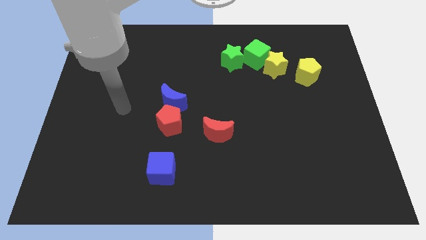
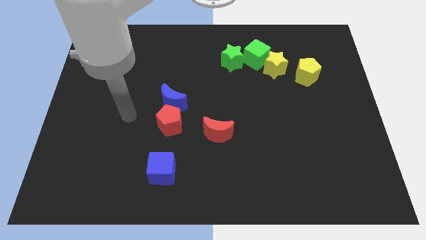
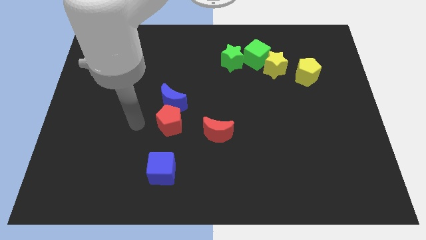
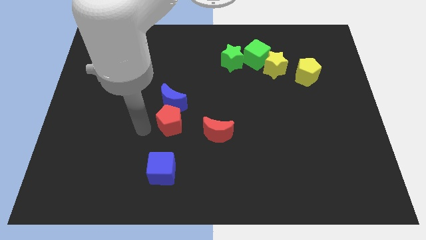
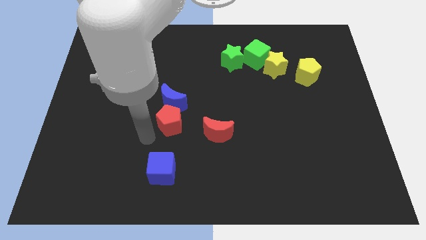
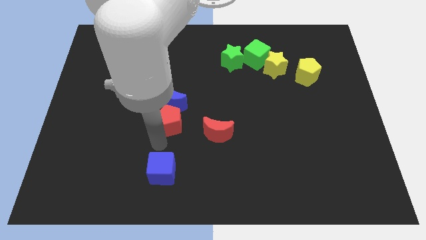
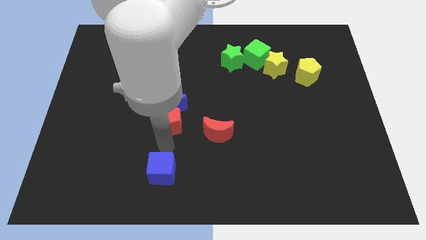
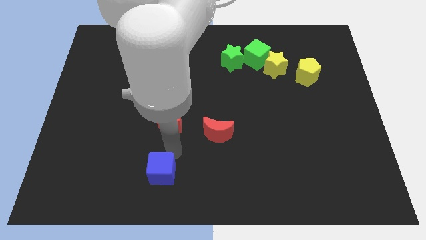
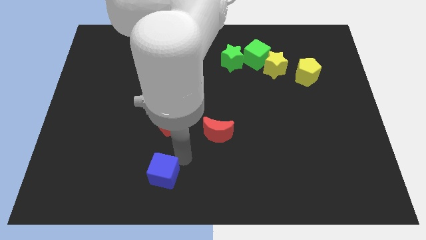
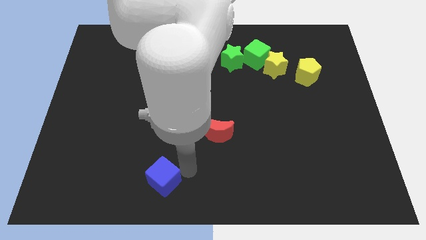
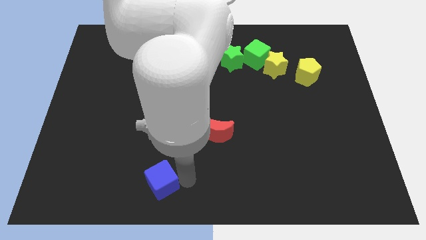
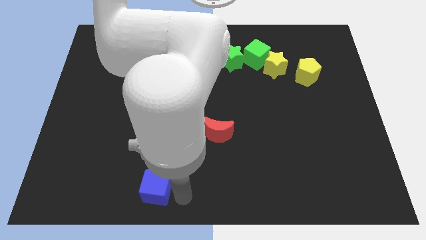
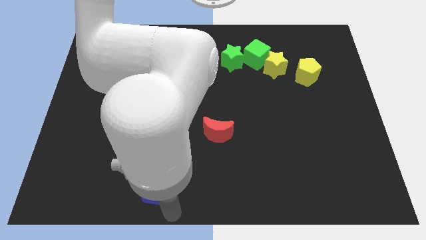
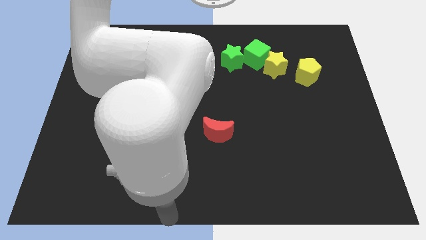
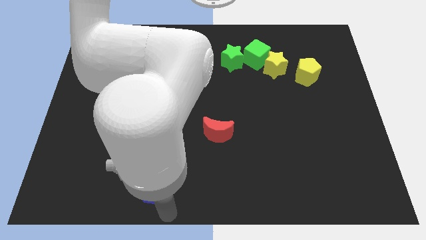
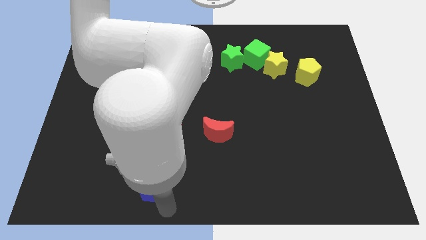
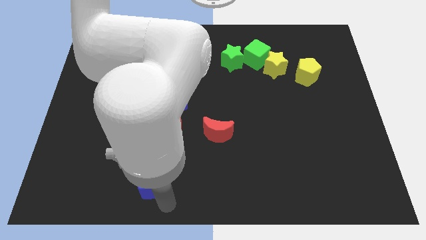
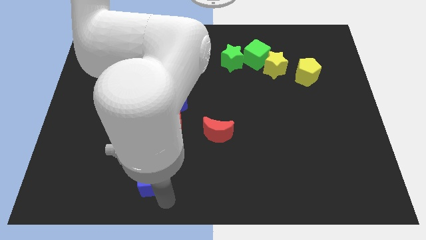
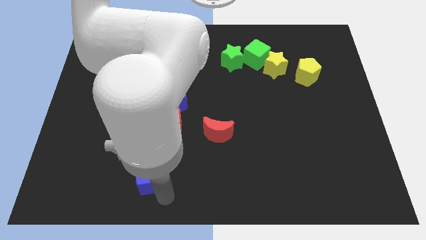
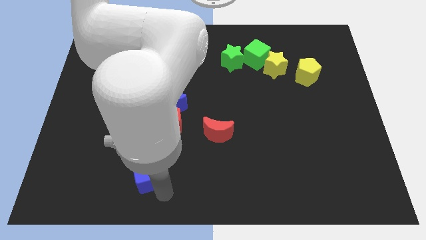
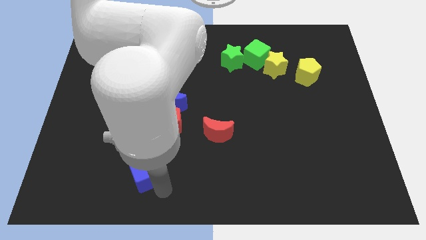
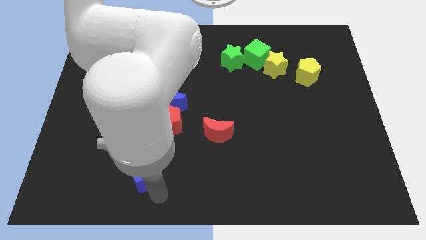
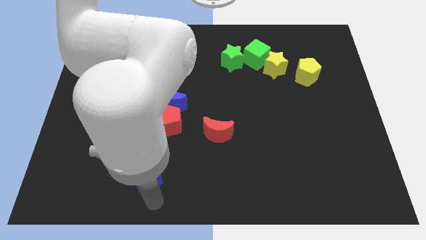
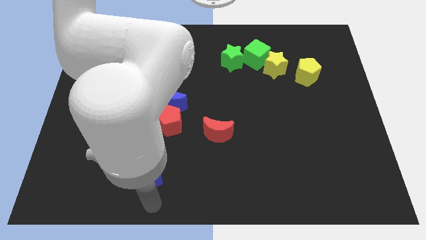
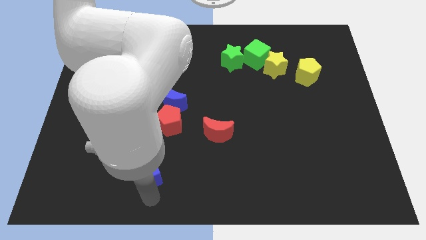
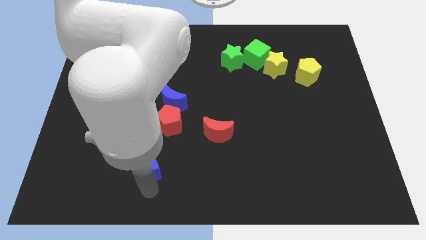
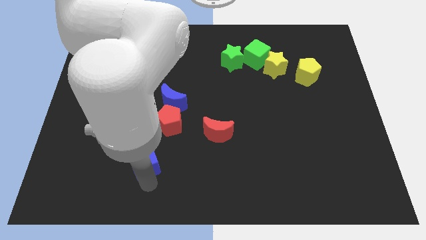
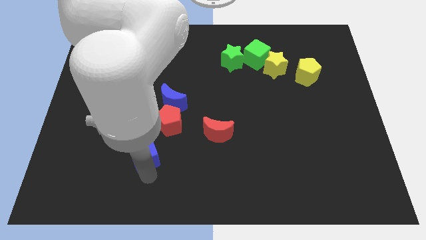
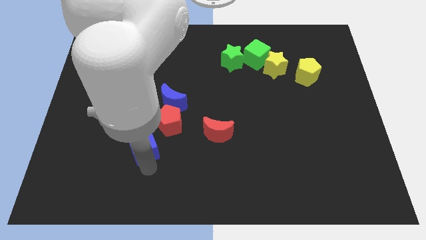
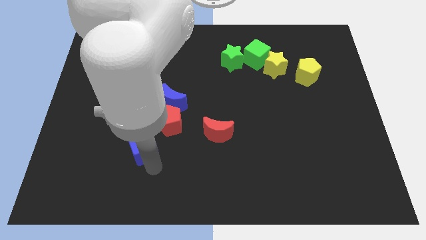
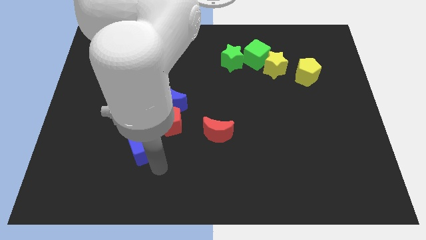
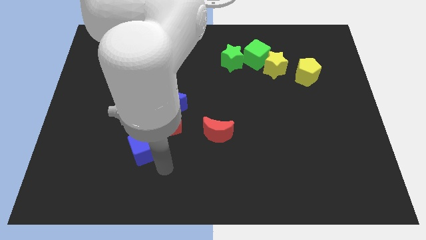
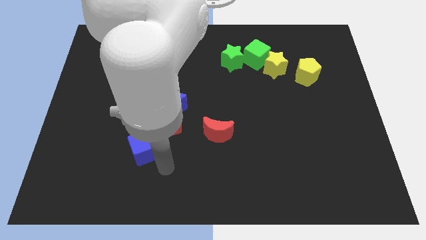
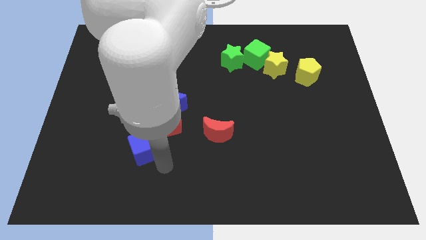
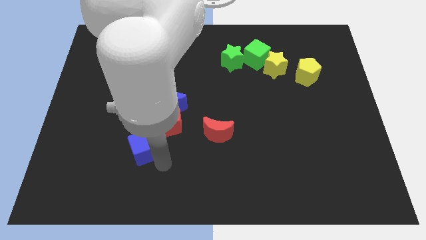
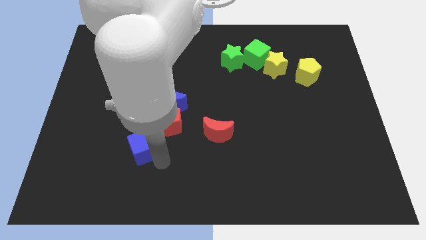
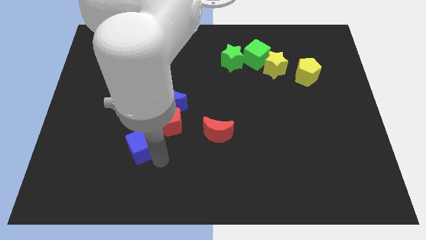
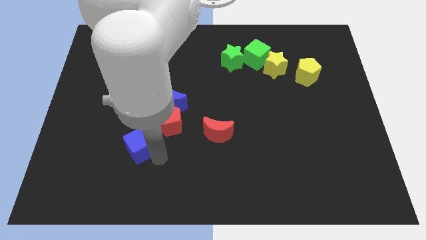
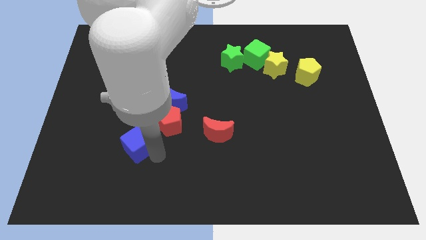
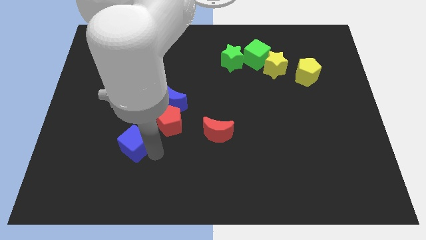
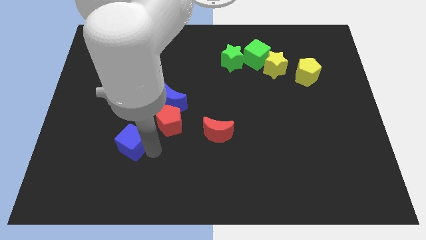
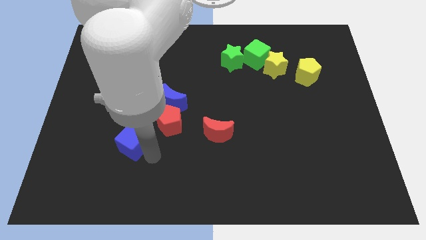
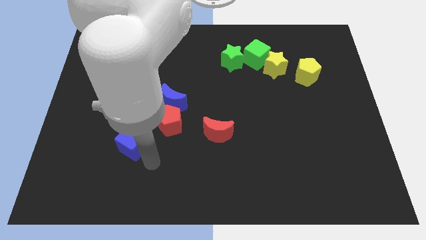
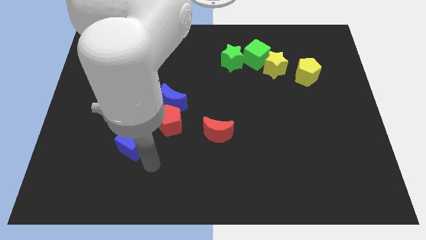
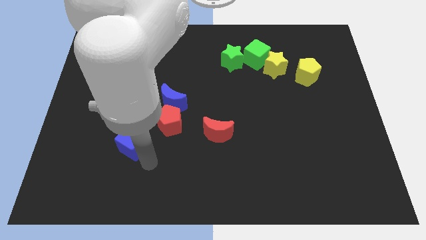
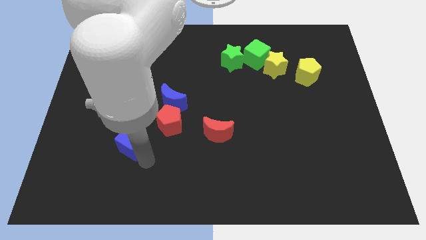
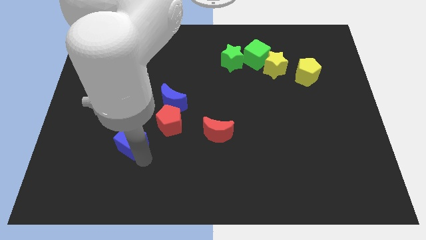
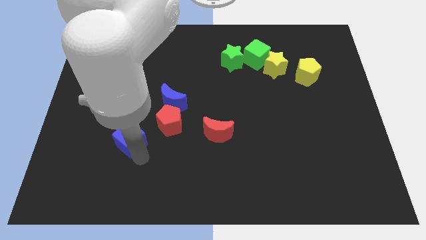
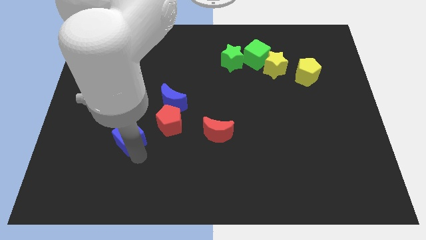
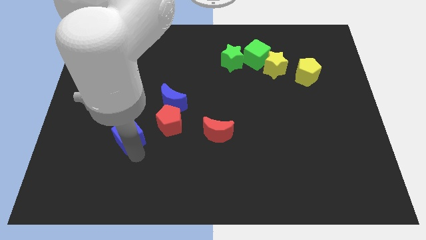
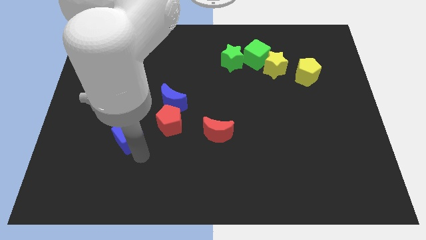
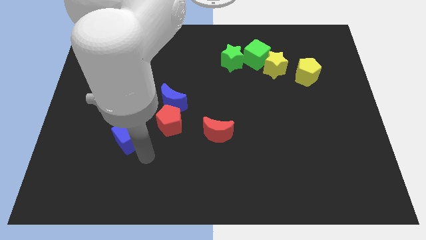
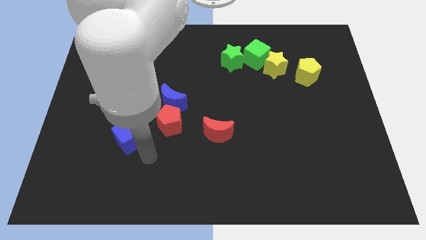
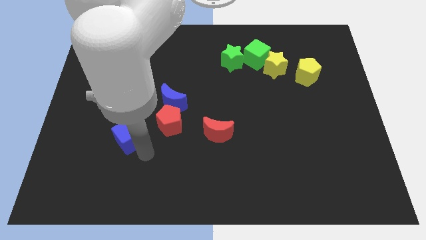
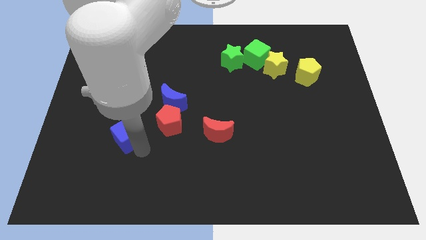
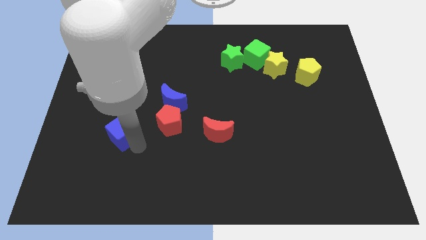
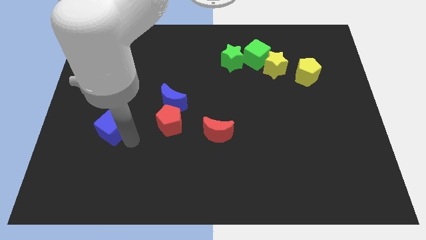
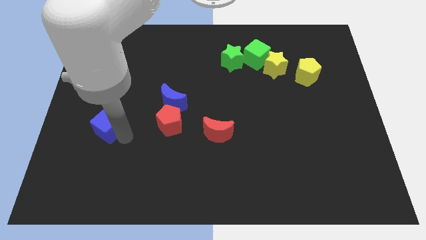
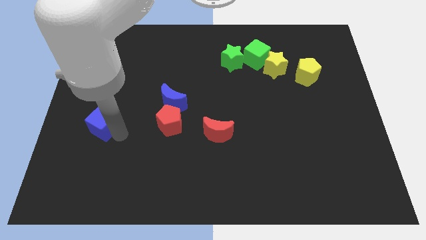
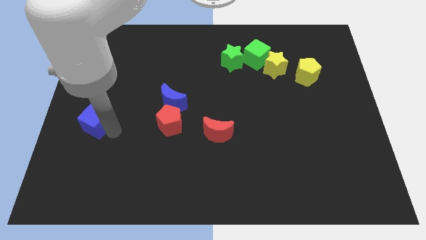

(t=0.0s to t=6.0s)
push the blue cube to the center left

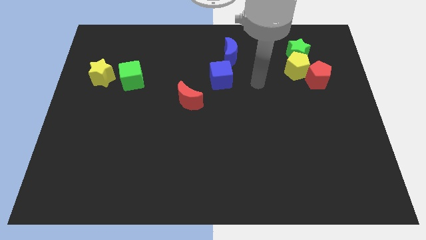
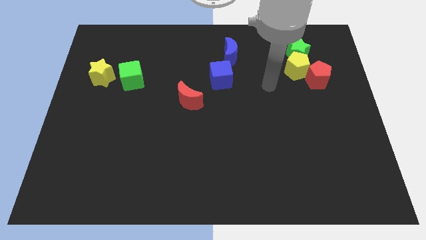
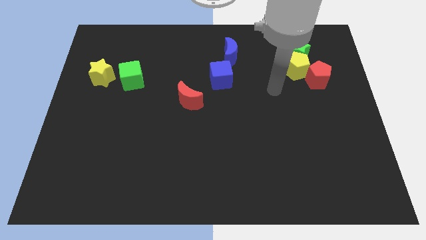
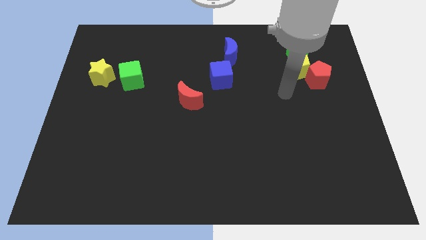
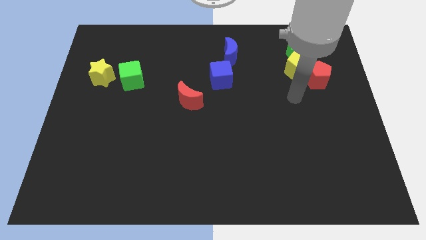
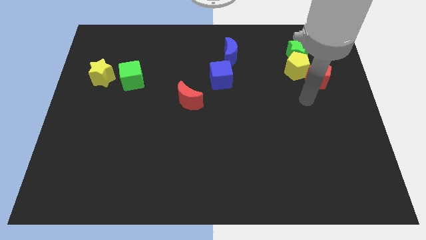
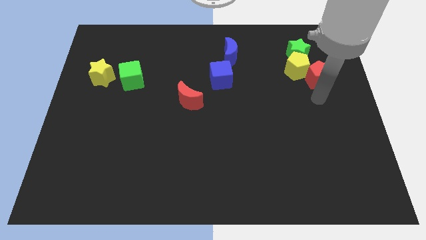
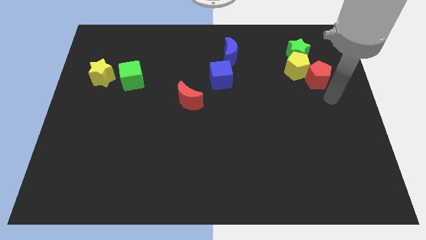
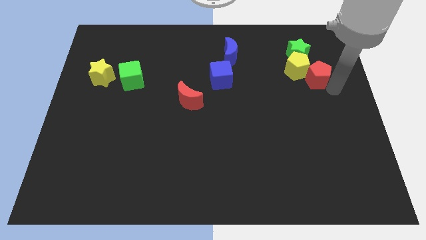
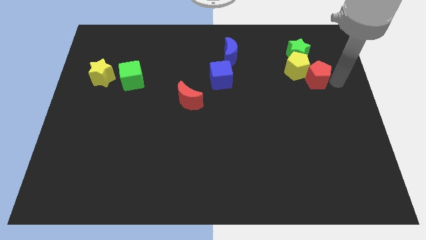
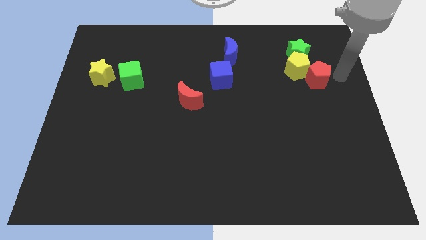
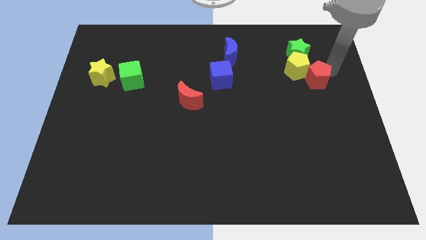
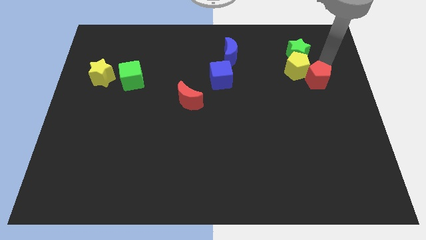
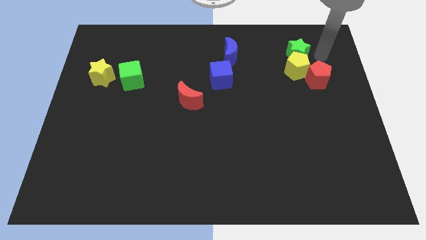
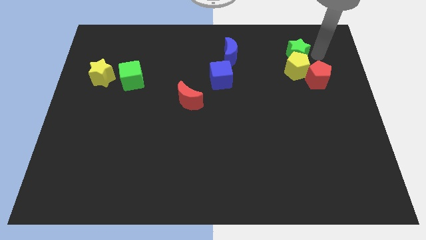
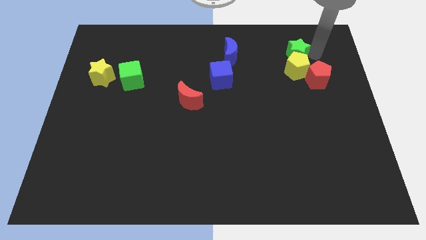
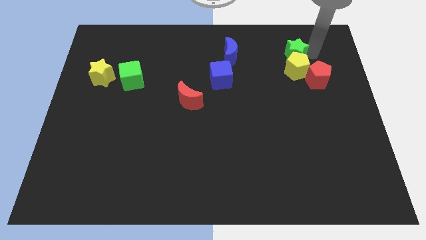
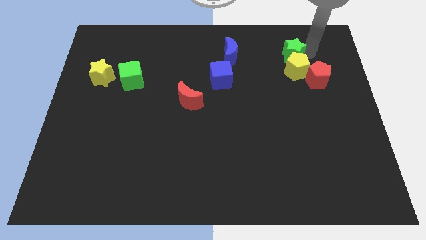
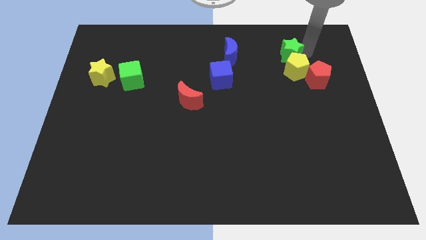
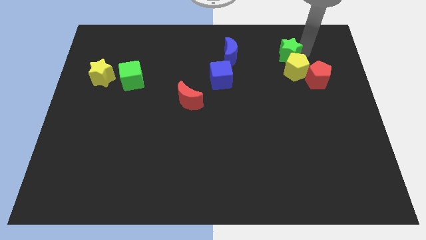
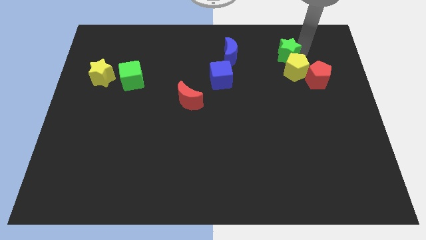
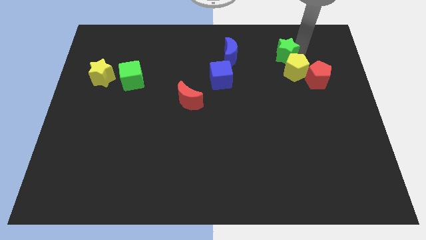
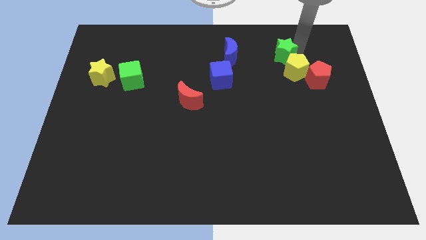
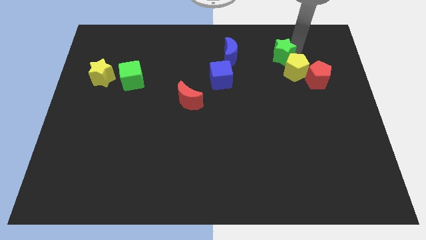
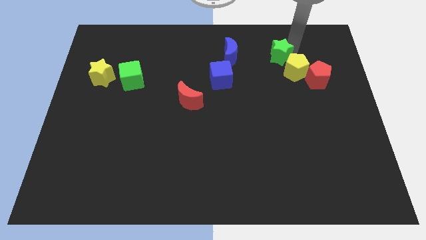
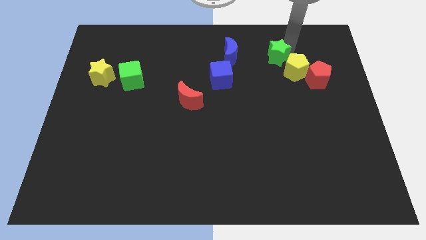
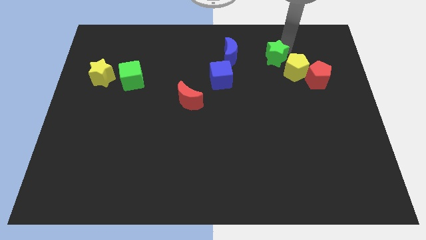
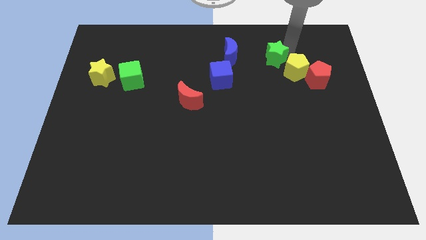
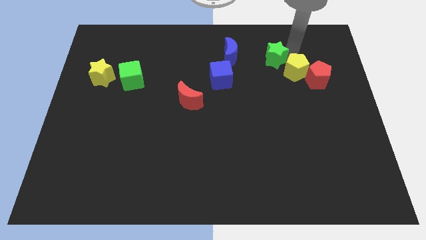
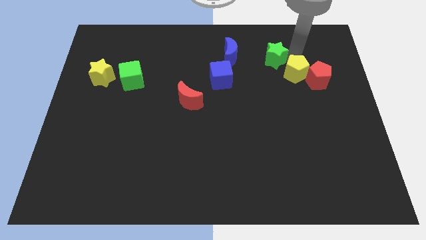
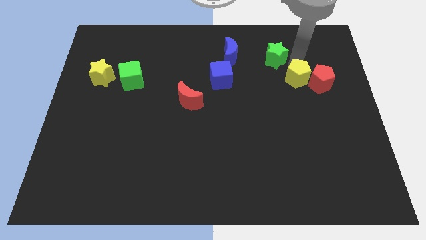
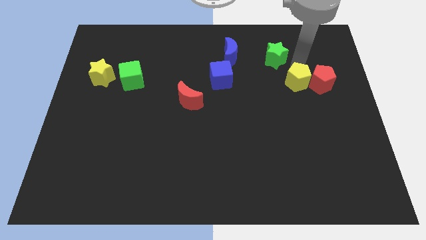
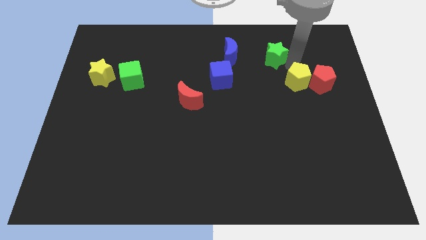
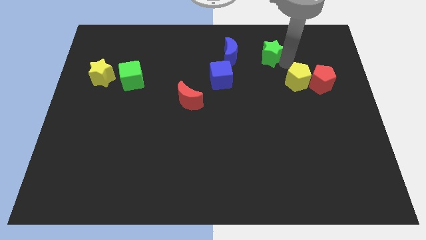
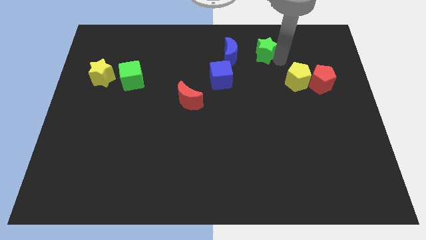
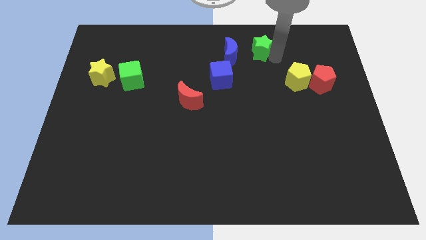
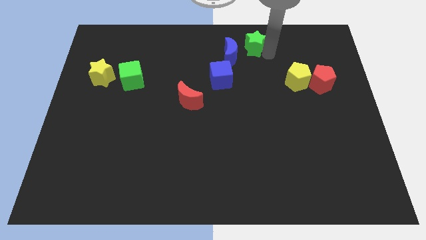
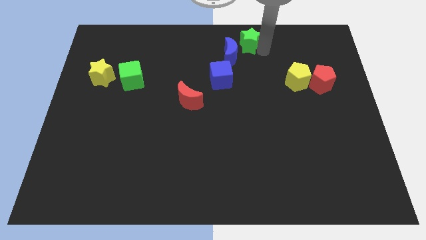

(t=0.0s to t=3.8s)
slide the green star to the top side
